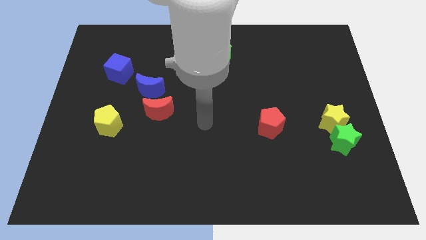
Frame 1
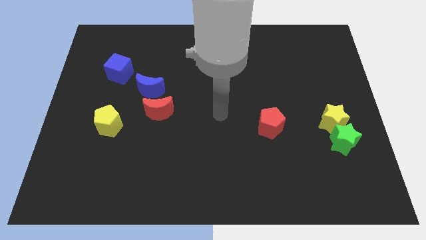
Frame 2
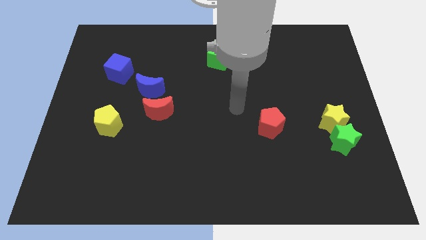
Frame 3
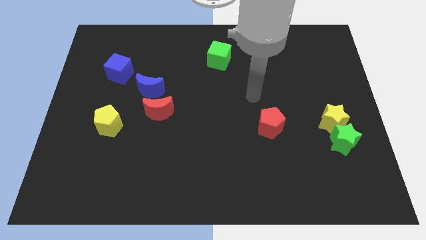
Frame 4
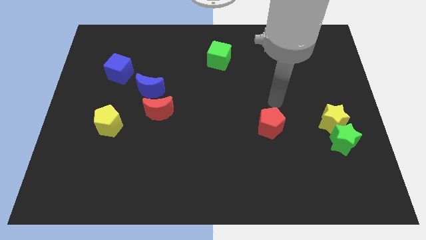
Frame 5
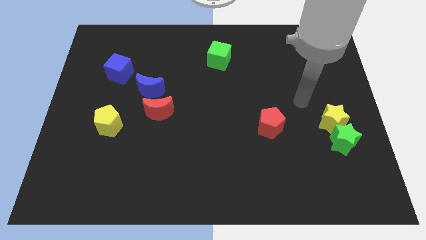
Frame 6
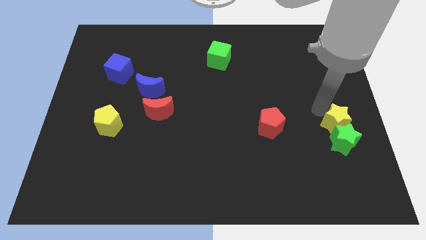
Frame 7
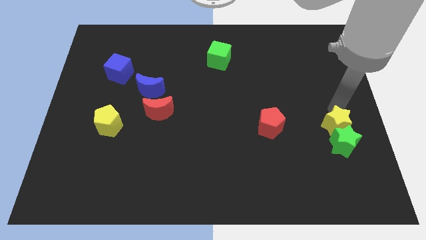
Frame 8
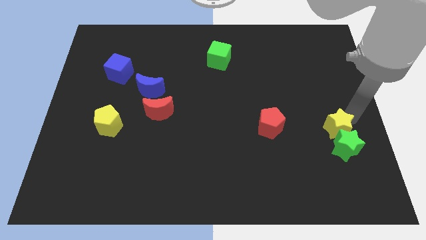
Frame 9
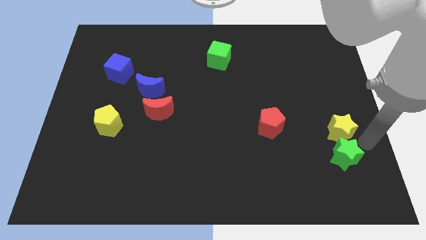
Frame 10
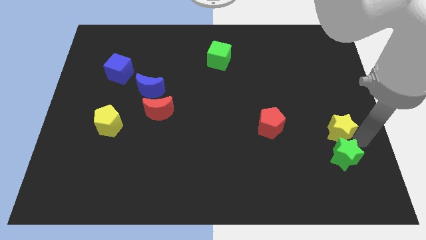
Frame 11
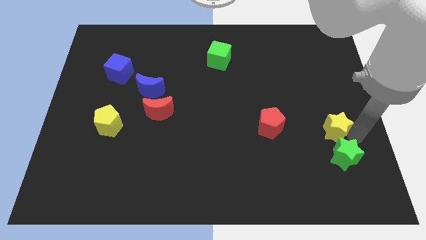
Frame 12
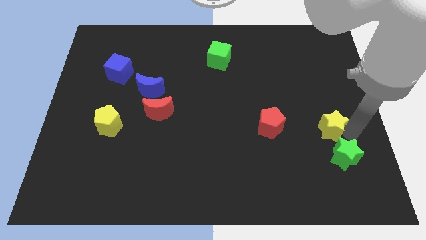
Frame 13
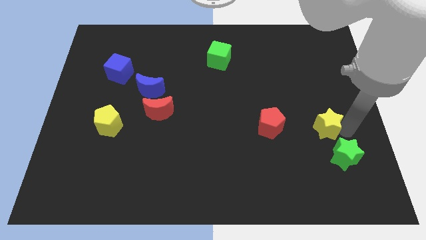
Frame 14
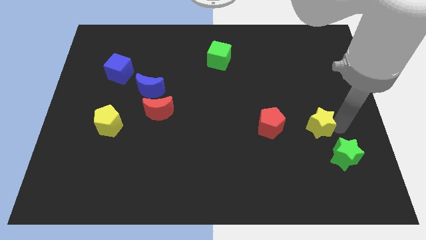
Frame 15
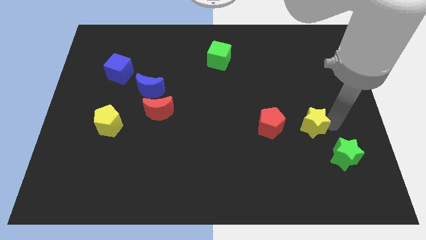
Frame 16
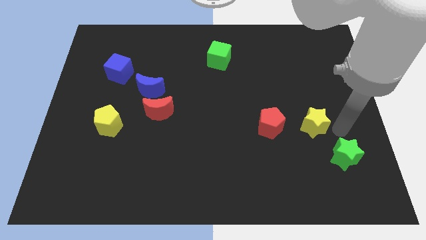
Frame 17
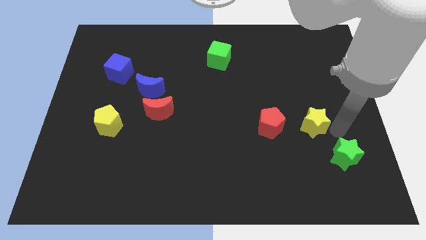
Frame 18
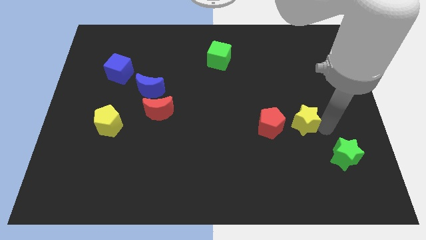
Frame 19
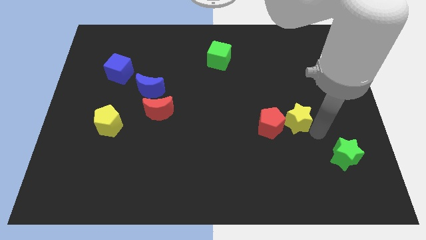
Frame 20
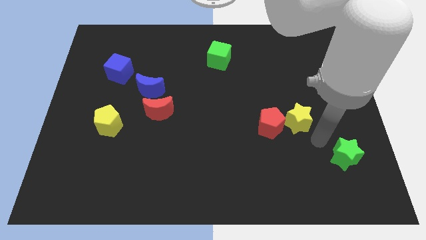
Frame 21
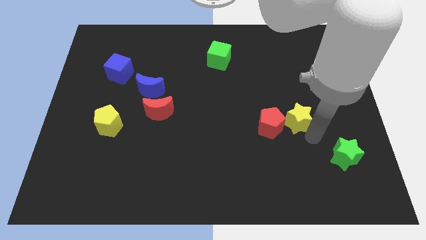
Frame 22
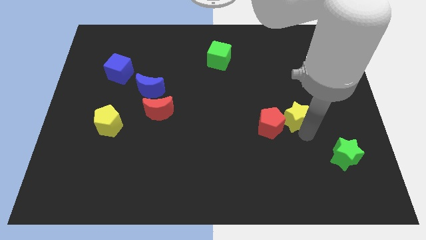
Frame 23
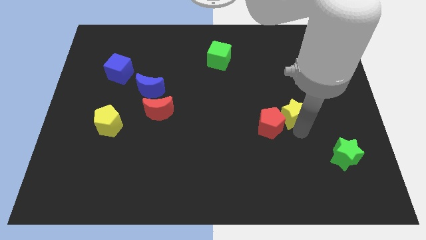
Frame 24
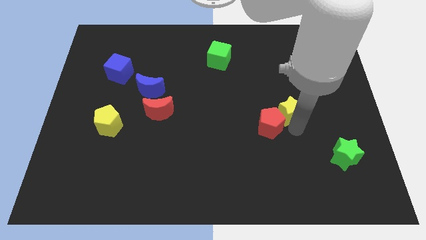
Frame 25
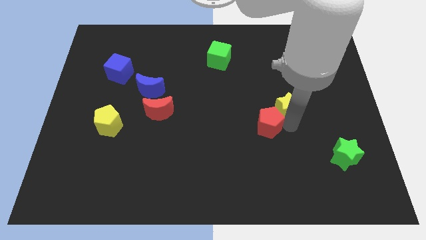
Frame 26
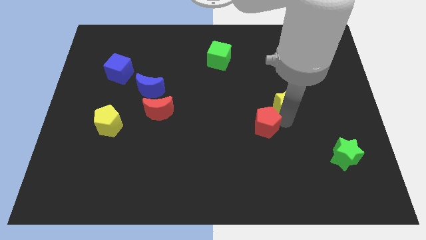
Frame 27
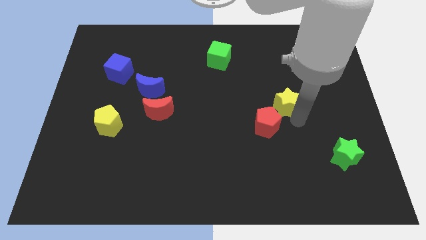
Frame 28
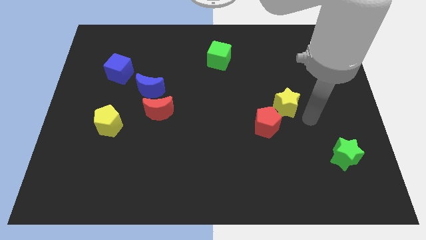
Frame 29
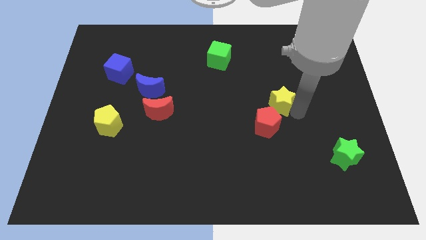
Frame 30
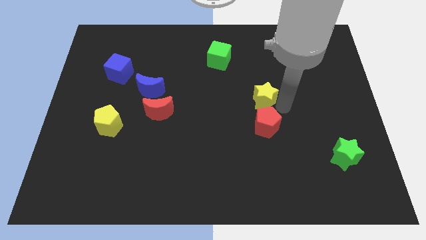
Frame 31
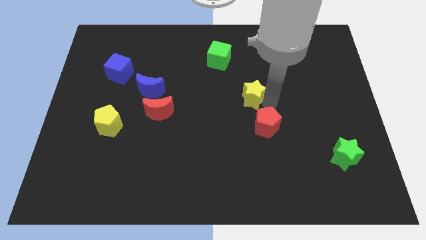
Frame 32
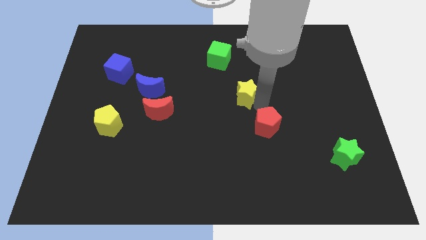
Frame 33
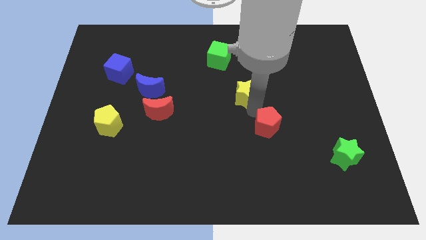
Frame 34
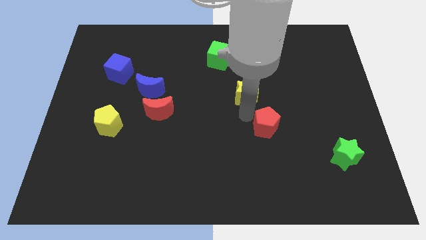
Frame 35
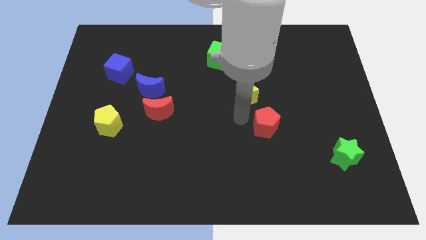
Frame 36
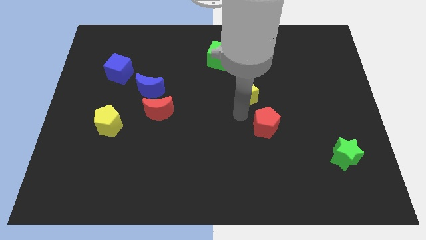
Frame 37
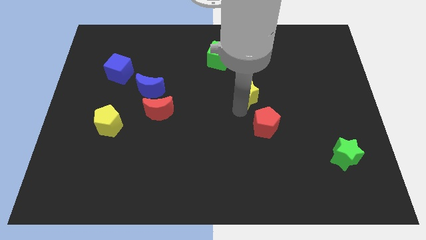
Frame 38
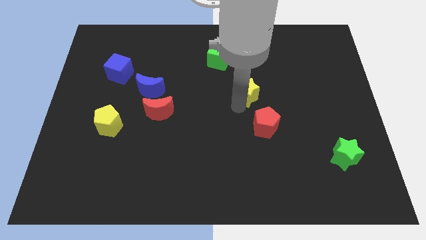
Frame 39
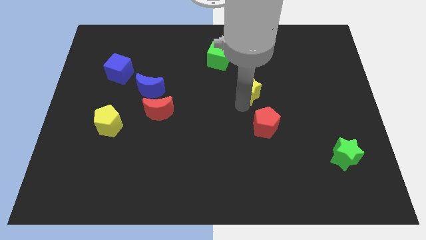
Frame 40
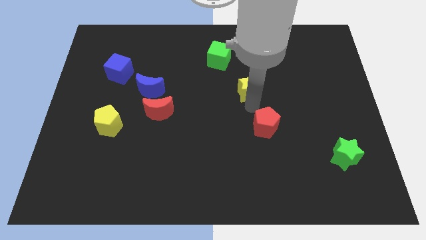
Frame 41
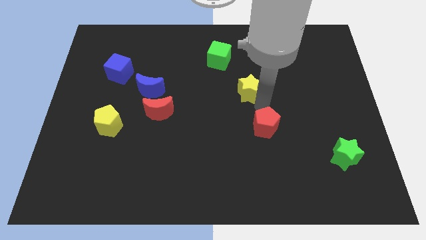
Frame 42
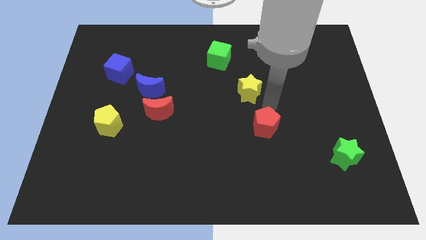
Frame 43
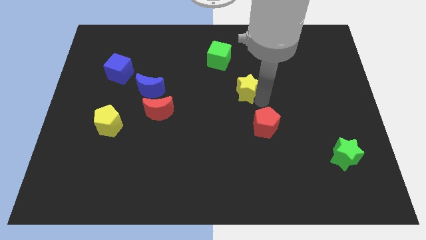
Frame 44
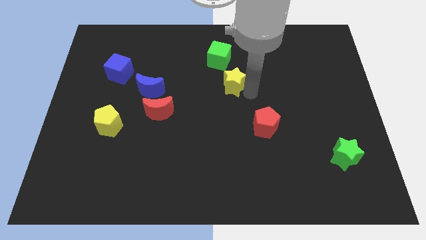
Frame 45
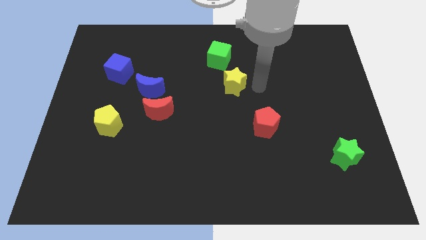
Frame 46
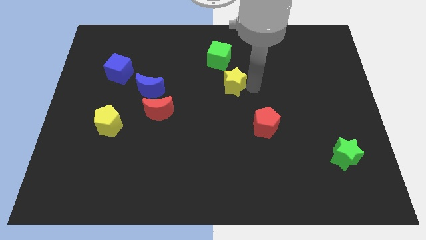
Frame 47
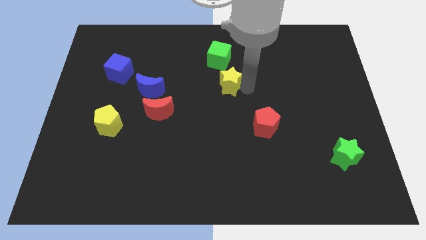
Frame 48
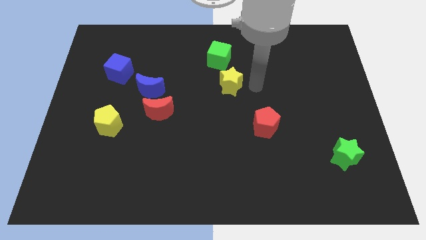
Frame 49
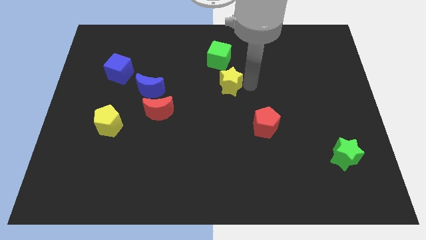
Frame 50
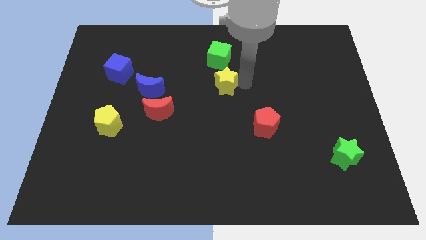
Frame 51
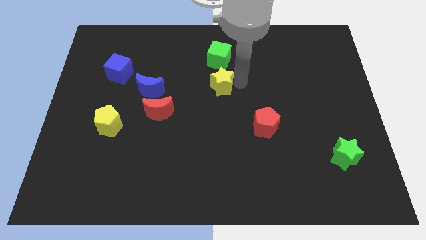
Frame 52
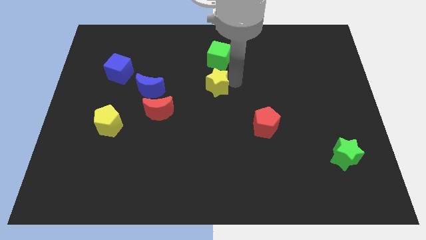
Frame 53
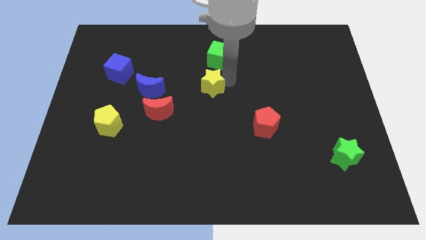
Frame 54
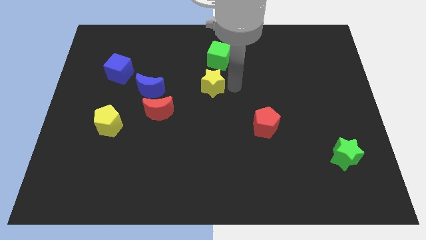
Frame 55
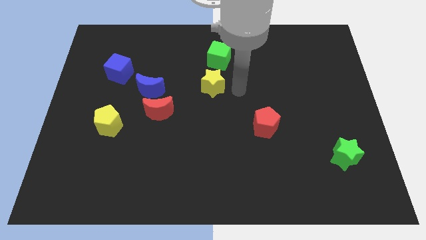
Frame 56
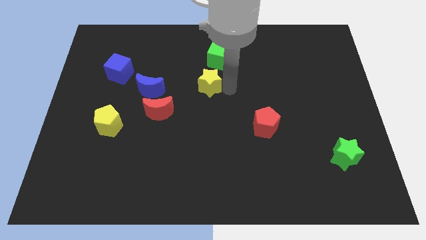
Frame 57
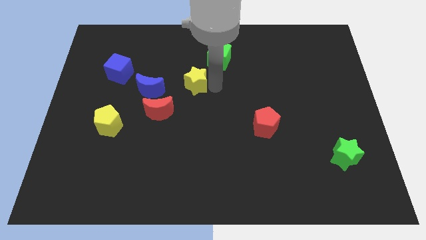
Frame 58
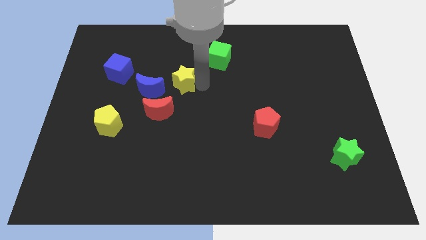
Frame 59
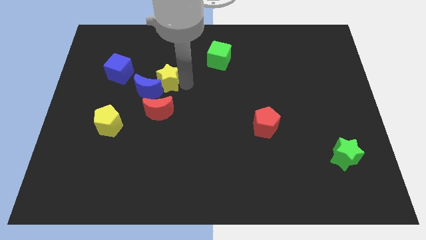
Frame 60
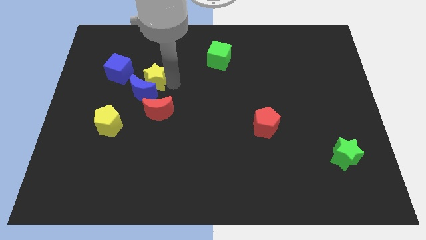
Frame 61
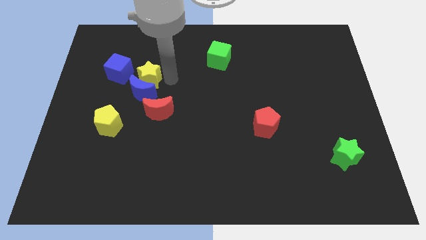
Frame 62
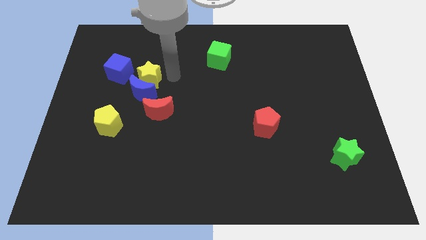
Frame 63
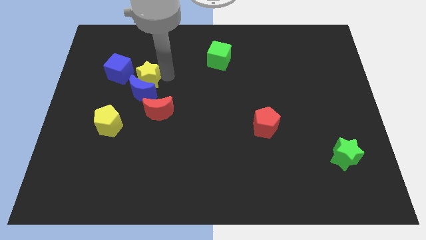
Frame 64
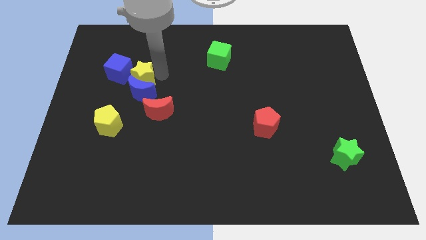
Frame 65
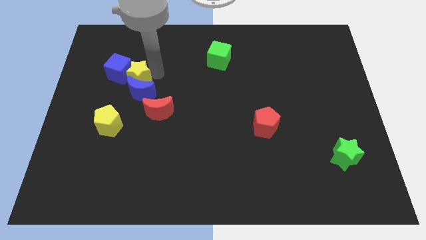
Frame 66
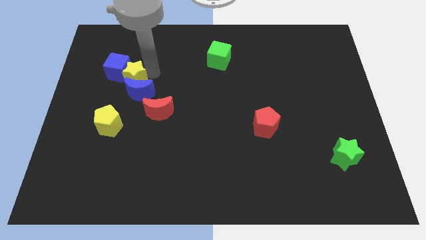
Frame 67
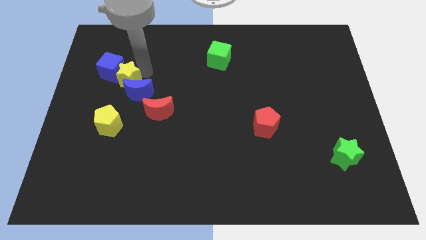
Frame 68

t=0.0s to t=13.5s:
push the yellow star left of the blue moon

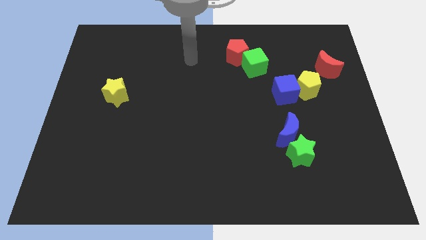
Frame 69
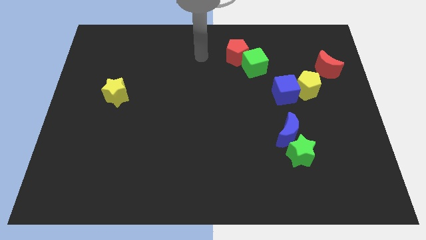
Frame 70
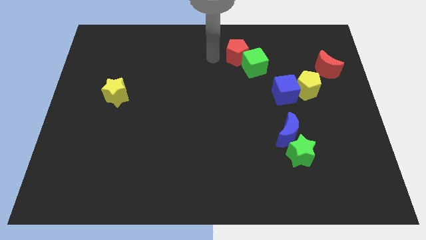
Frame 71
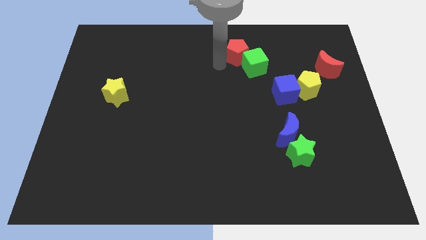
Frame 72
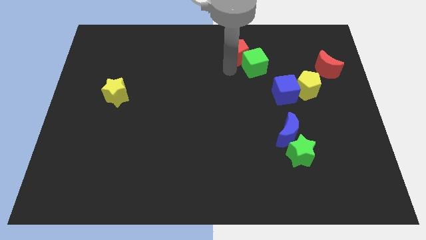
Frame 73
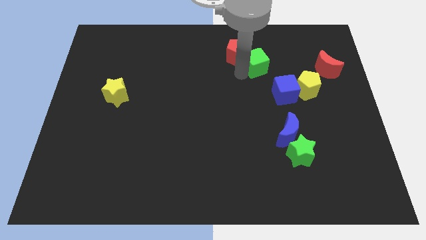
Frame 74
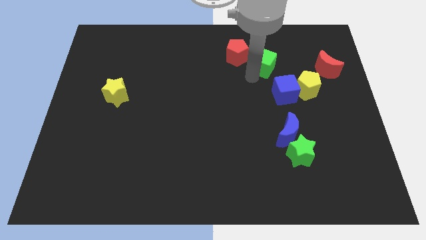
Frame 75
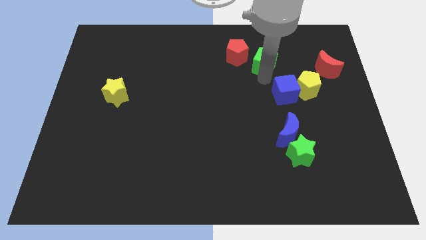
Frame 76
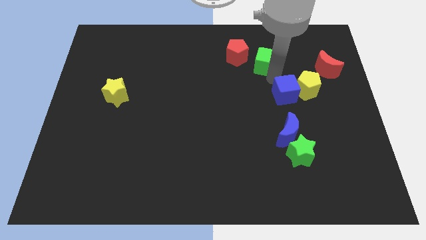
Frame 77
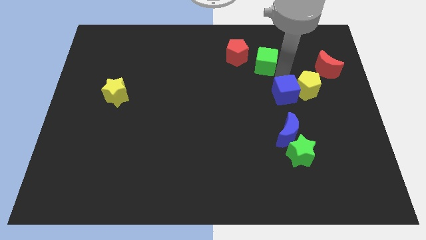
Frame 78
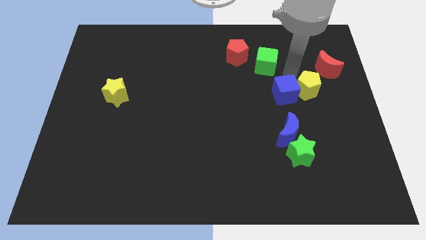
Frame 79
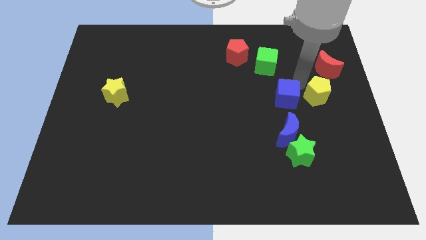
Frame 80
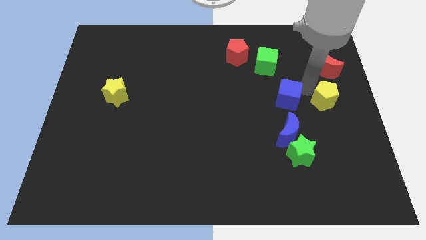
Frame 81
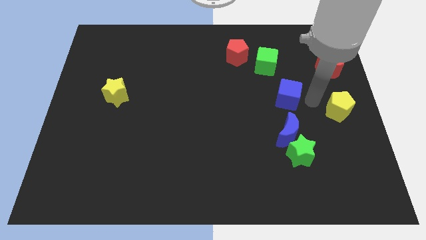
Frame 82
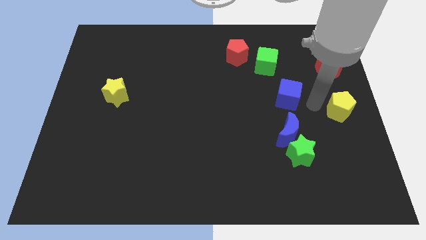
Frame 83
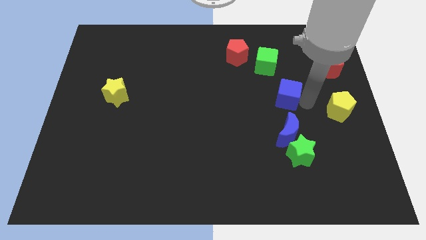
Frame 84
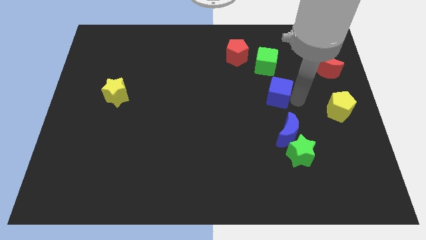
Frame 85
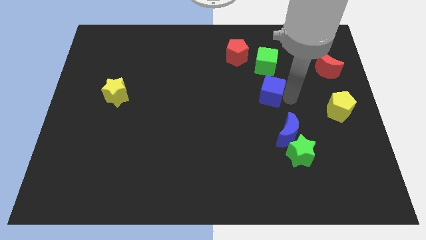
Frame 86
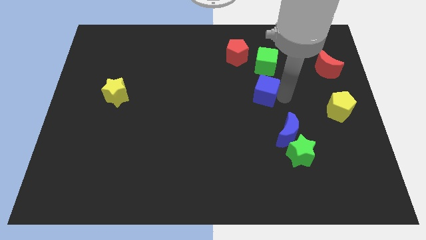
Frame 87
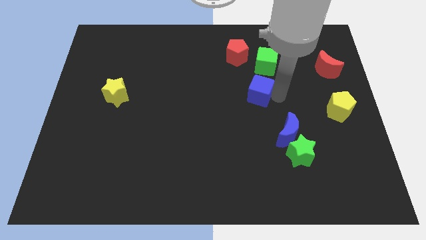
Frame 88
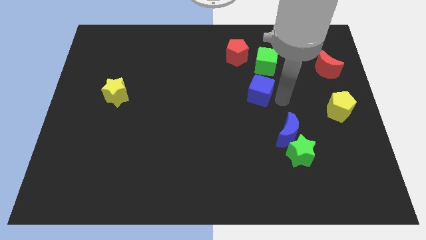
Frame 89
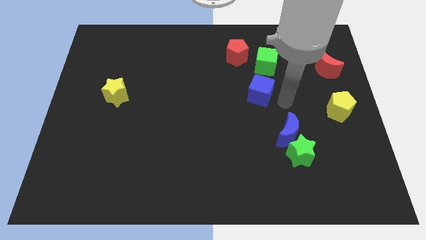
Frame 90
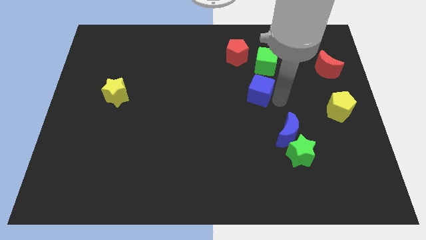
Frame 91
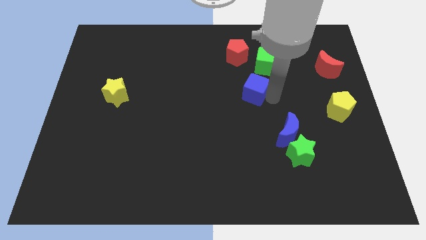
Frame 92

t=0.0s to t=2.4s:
put the blue cube below the red pentagon

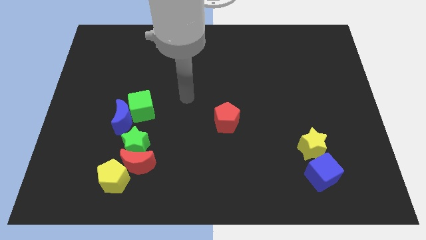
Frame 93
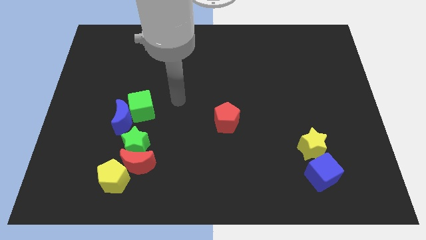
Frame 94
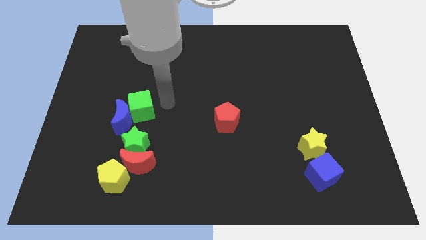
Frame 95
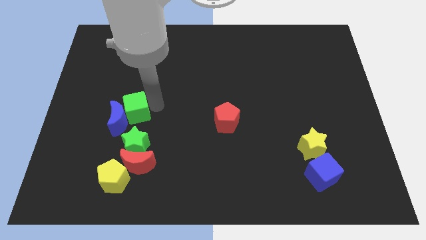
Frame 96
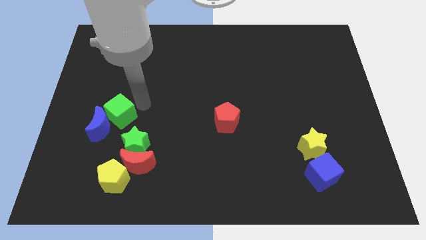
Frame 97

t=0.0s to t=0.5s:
put the blue moon to the left of the green star
